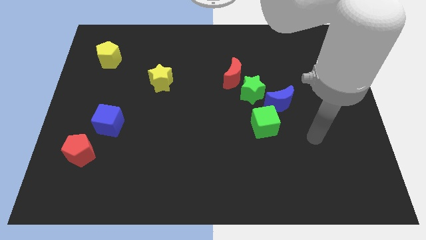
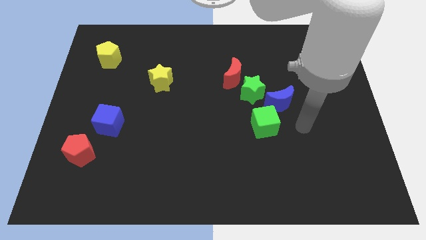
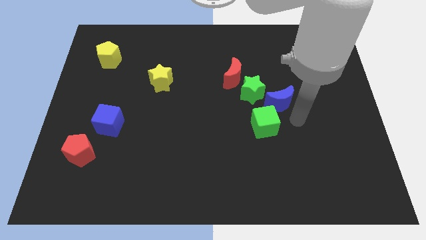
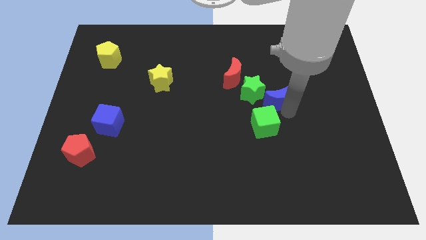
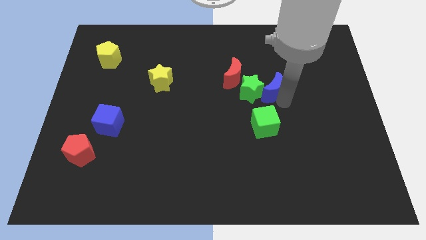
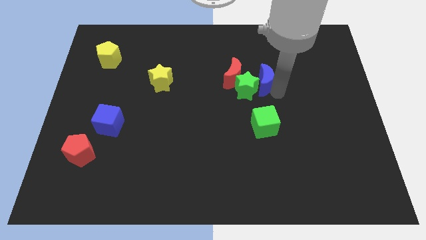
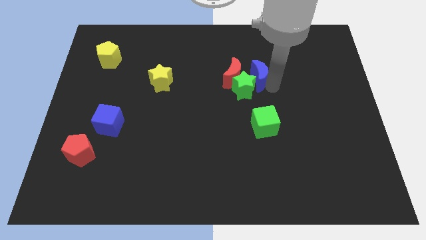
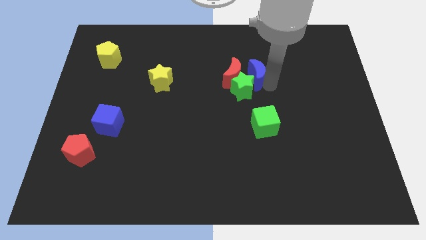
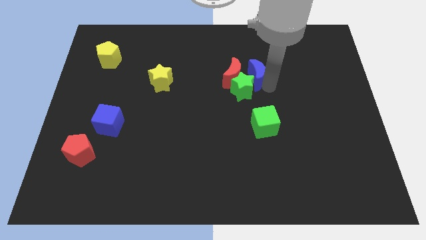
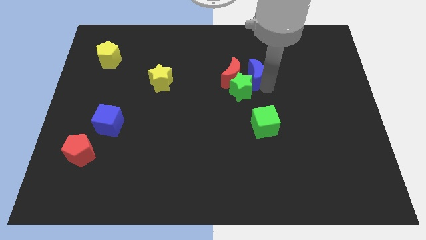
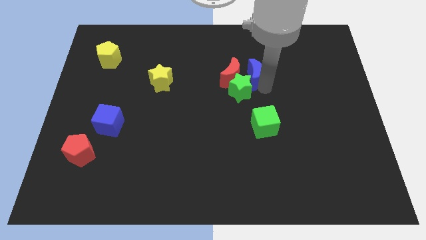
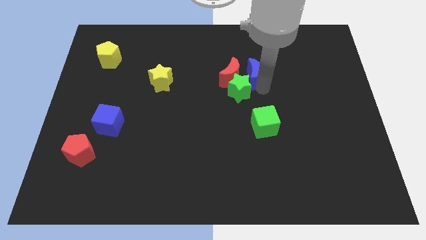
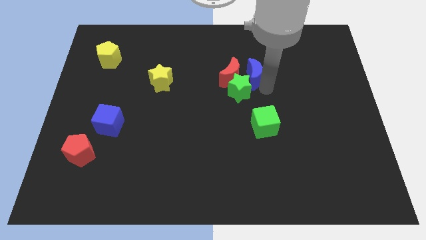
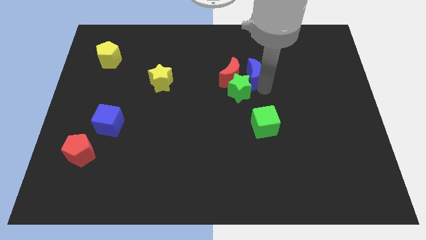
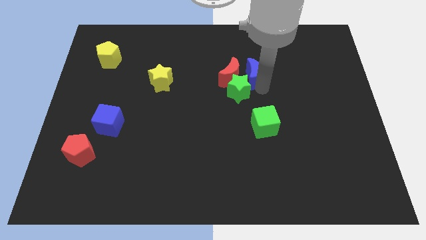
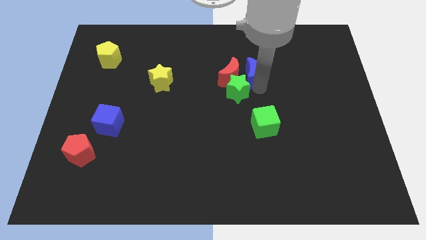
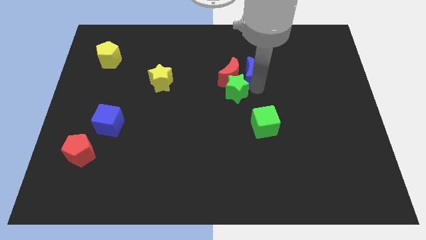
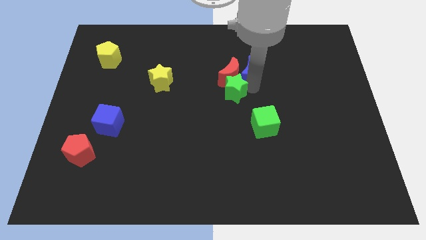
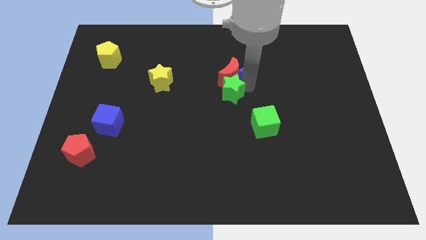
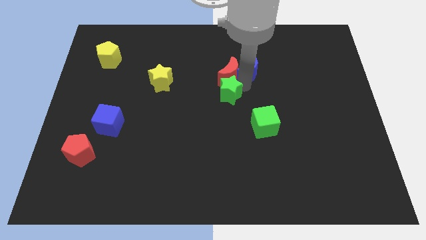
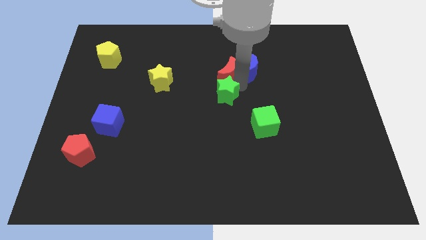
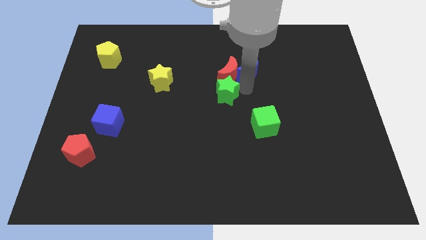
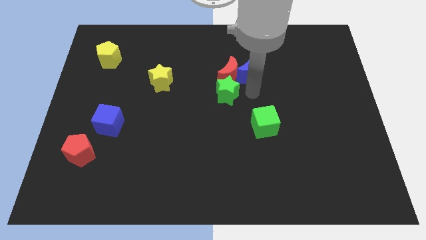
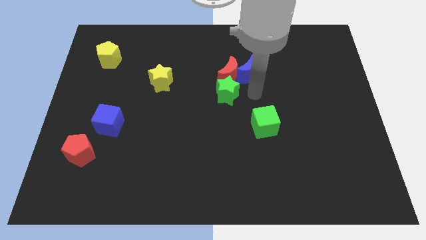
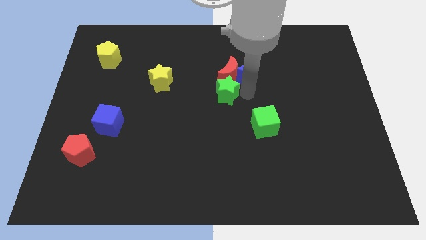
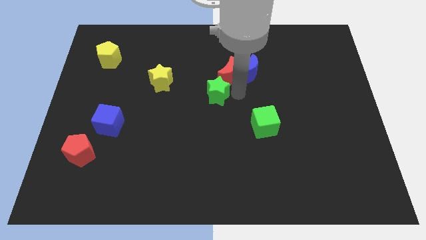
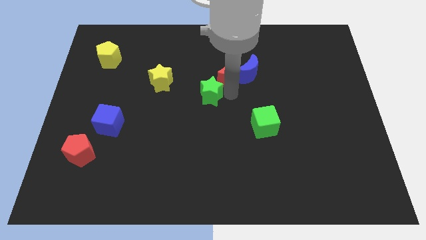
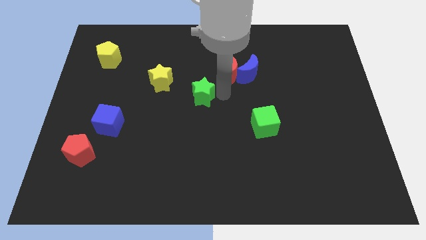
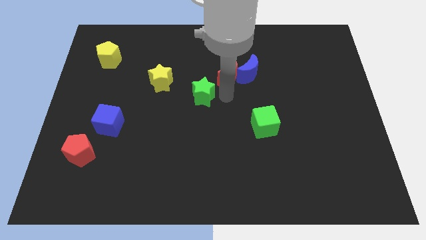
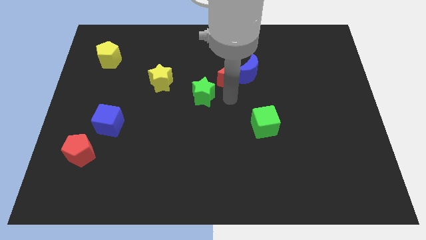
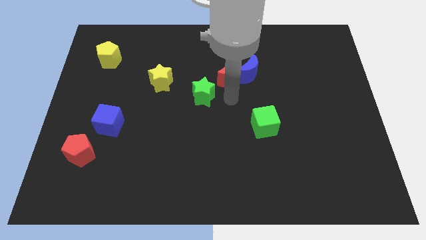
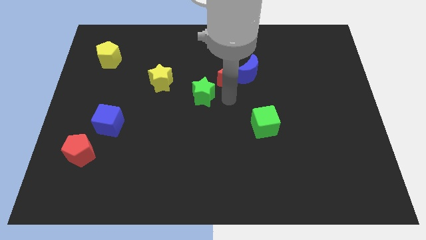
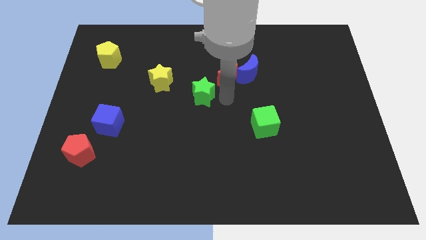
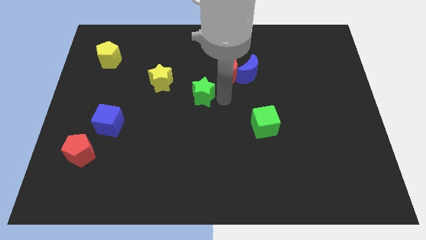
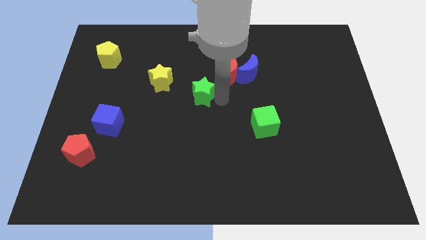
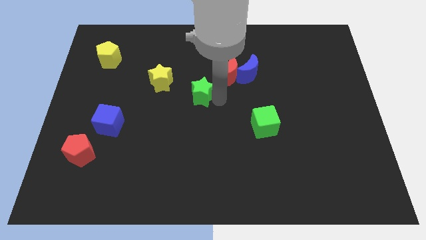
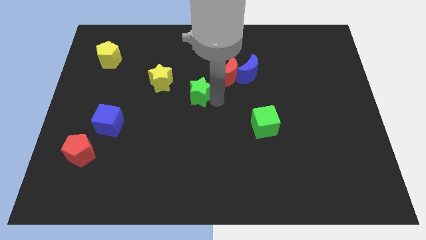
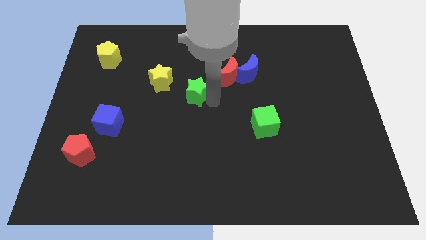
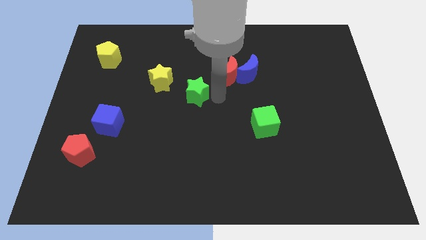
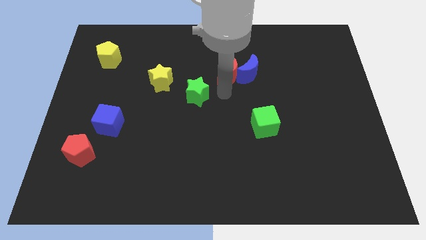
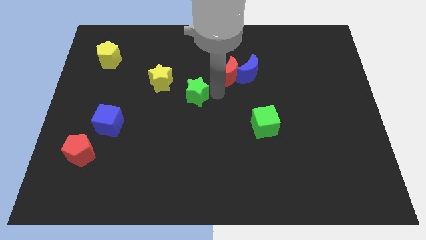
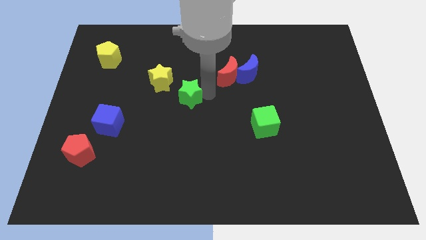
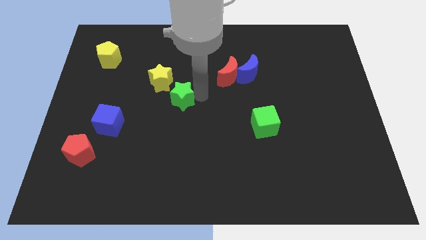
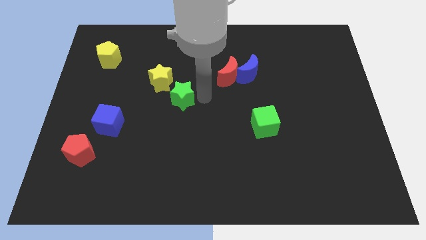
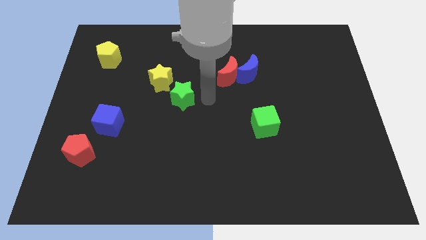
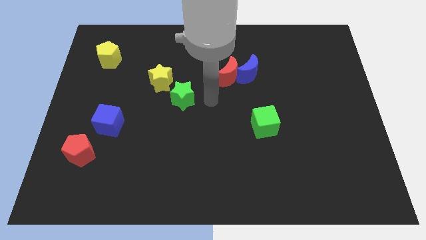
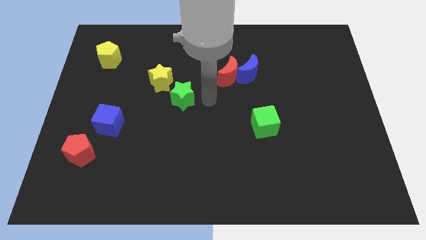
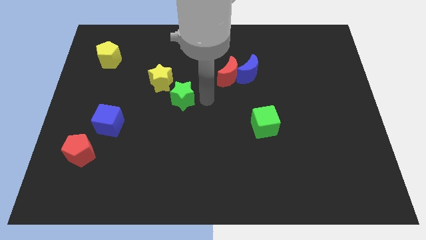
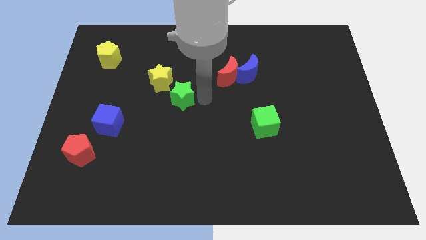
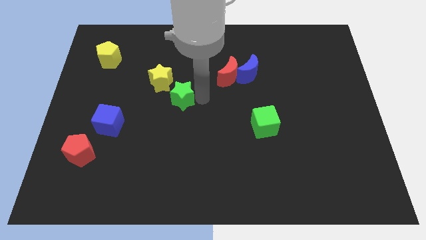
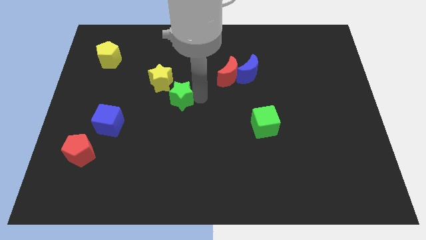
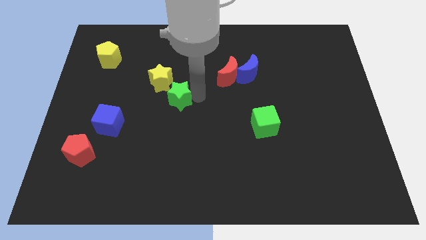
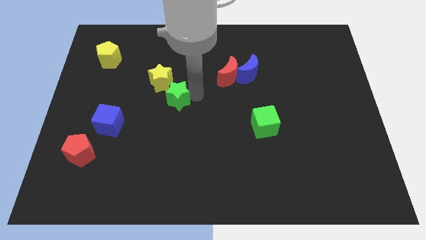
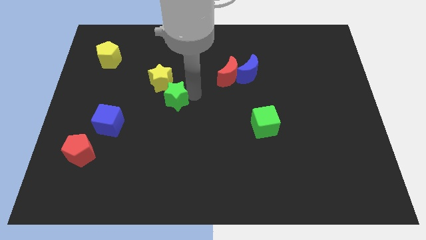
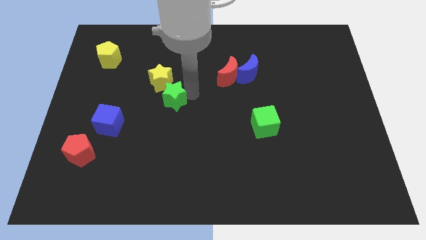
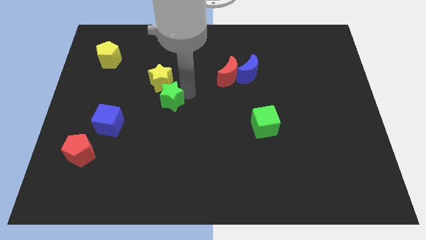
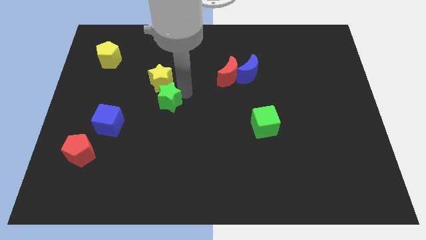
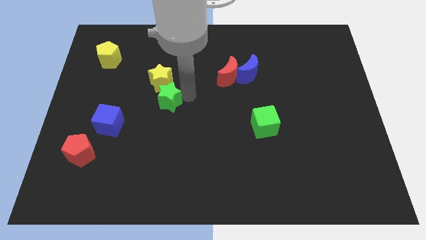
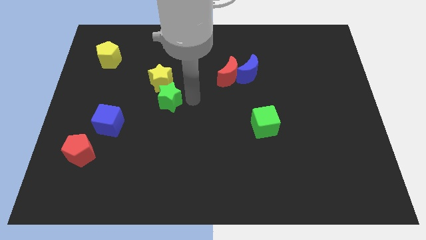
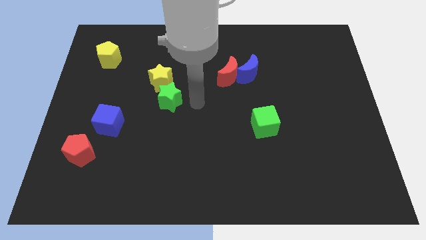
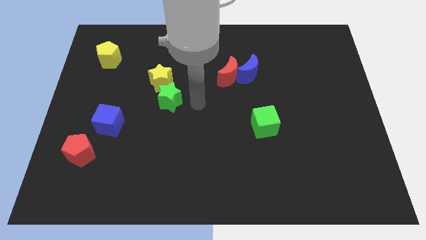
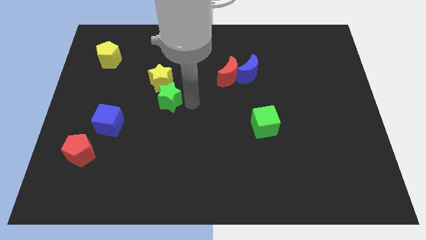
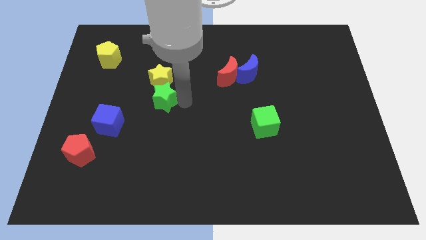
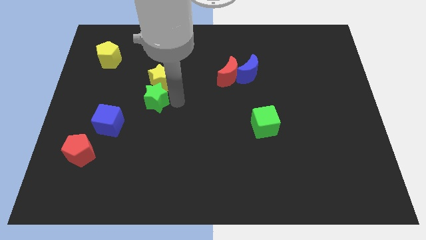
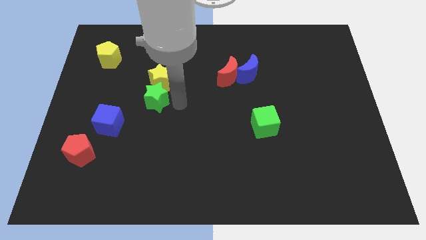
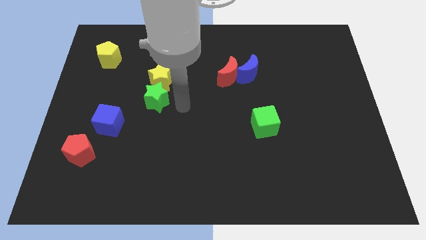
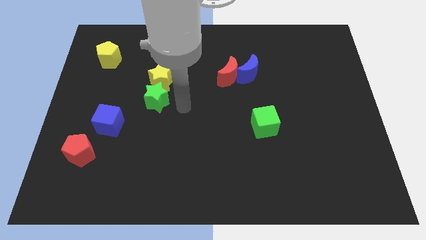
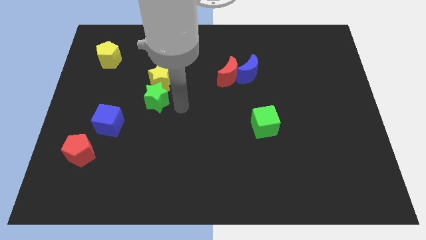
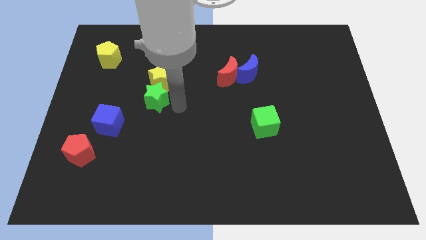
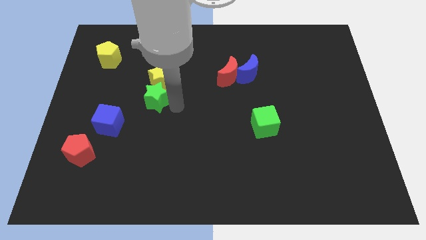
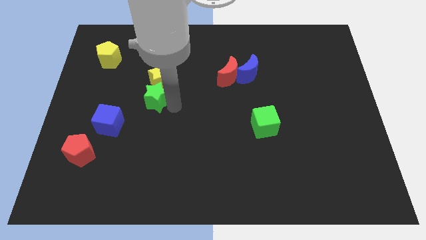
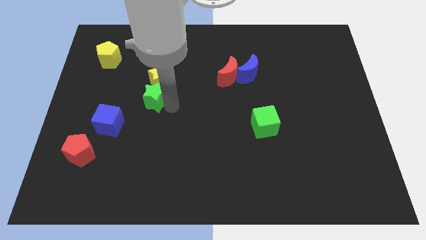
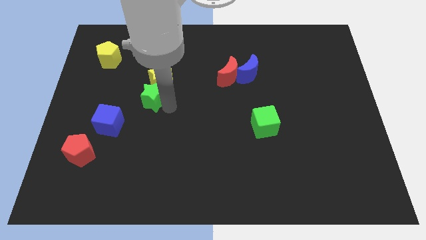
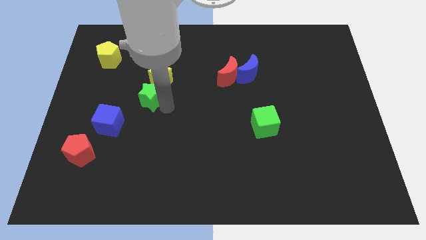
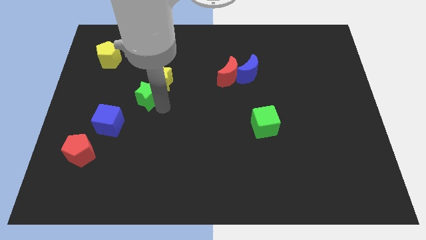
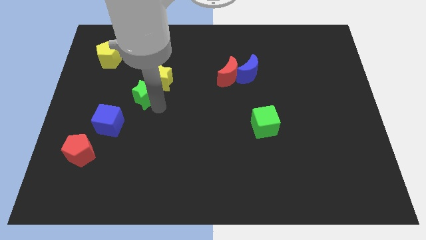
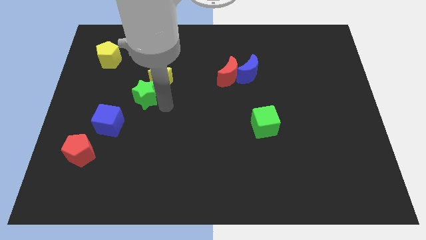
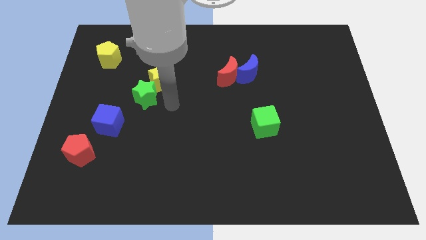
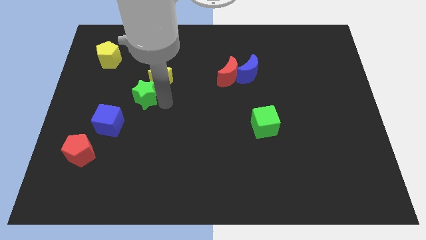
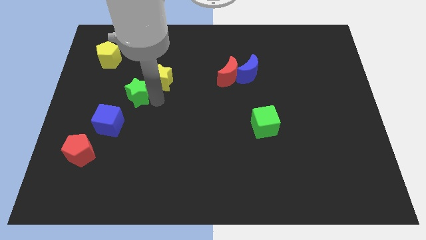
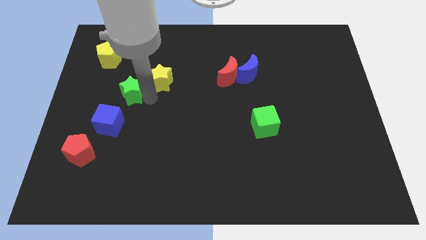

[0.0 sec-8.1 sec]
put the green star to the top side of the blue cube
